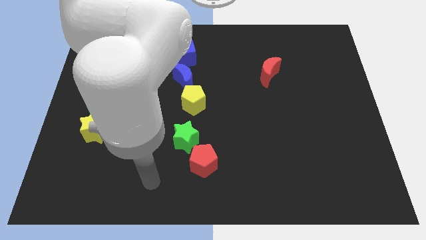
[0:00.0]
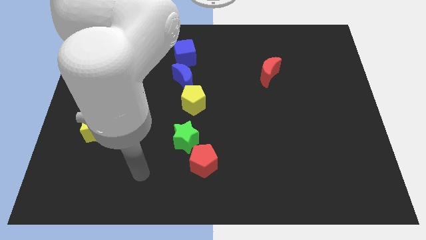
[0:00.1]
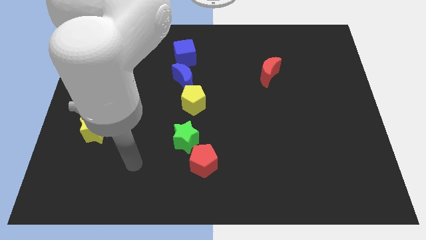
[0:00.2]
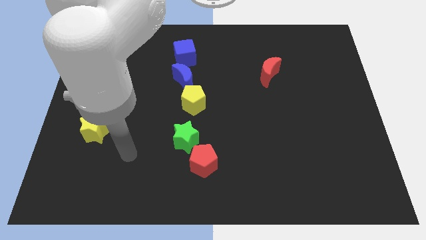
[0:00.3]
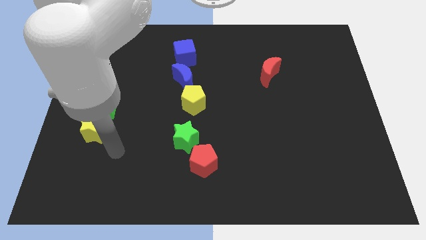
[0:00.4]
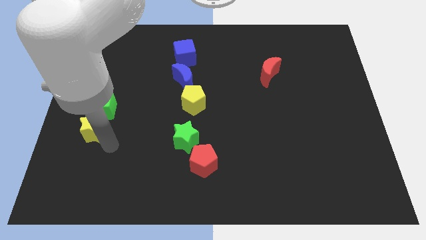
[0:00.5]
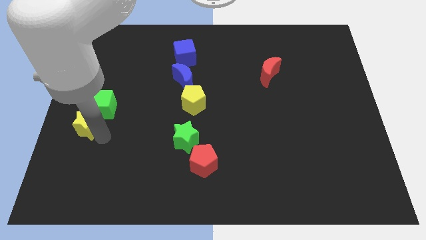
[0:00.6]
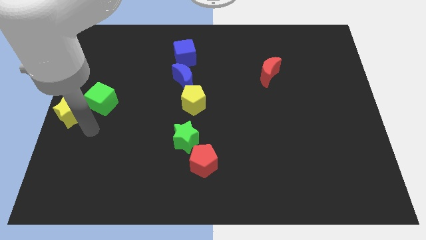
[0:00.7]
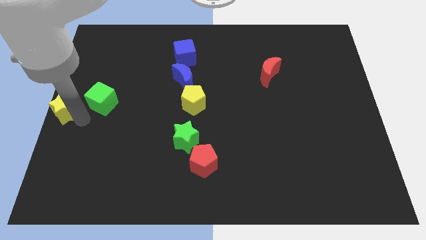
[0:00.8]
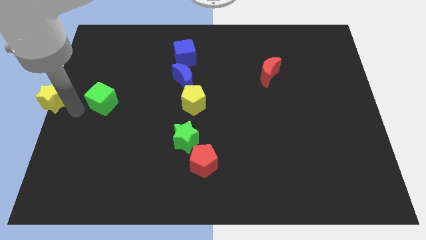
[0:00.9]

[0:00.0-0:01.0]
separate the green cube from the yellow star

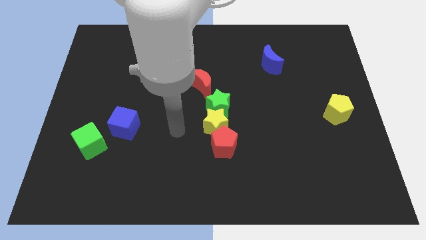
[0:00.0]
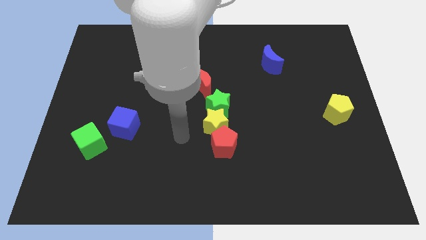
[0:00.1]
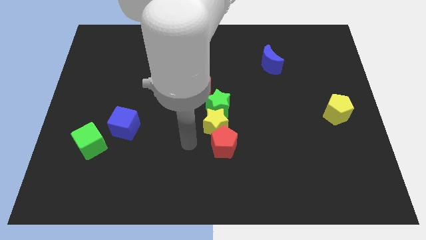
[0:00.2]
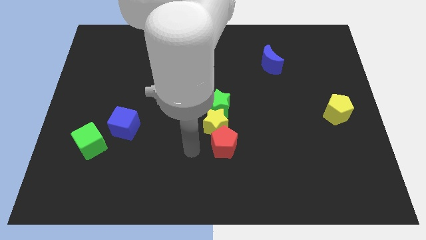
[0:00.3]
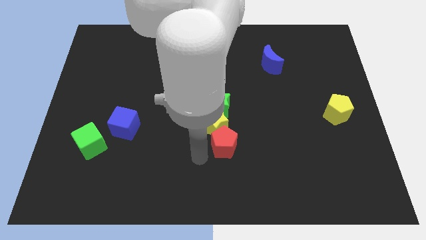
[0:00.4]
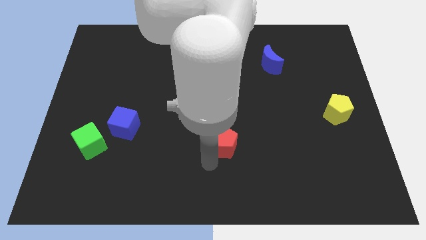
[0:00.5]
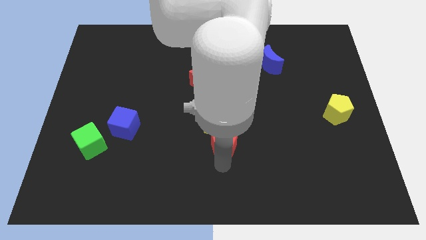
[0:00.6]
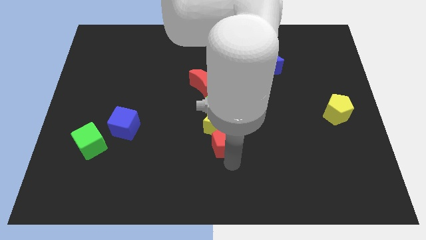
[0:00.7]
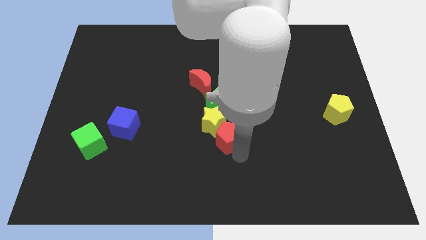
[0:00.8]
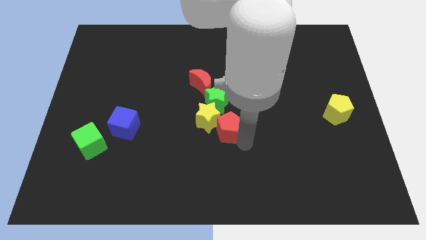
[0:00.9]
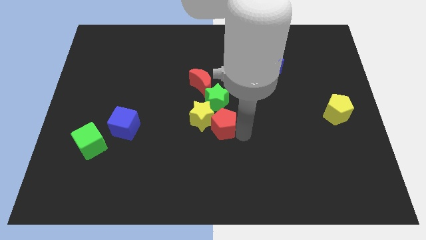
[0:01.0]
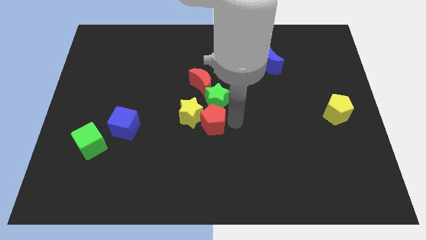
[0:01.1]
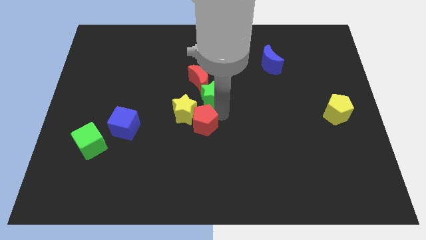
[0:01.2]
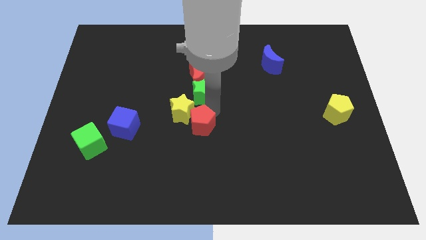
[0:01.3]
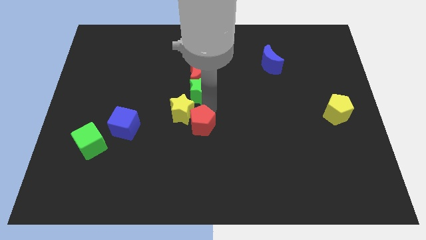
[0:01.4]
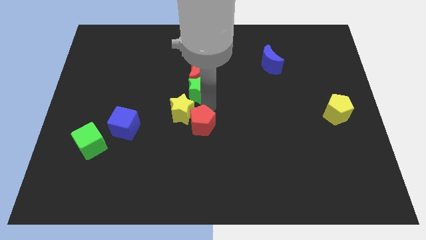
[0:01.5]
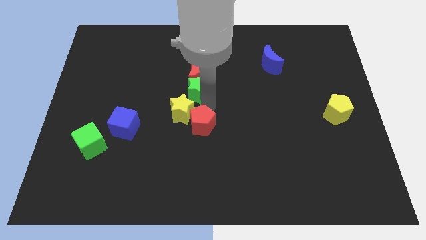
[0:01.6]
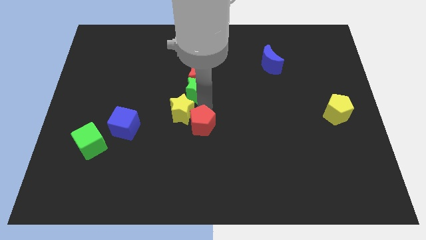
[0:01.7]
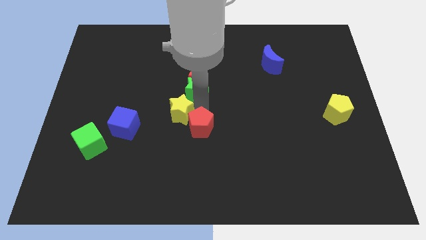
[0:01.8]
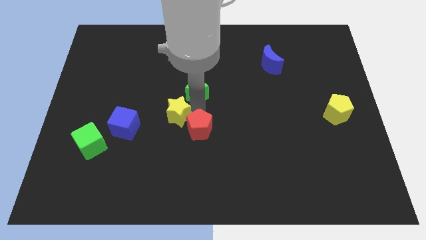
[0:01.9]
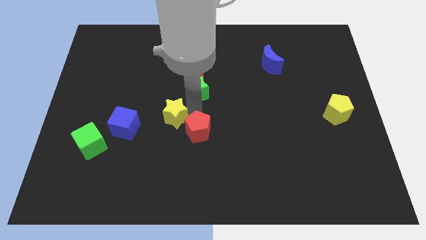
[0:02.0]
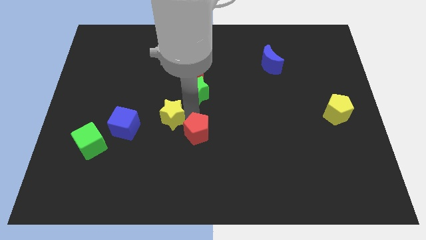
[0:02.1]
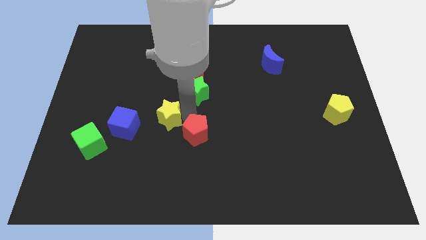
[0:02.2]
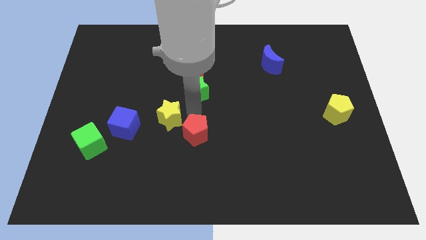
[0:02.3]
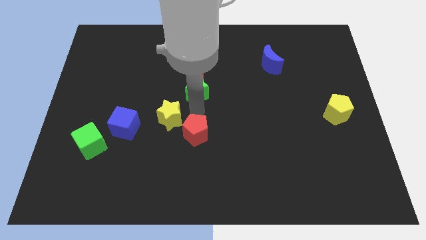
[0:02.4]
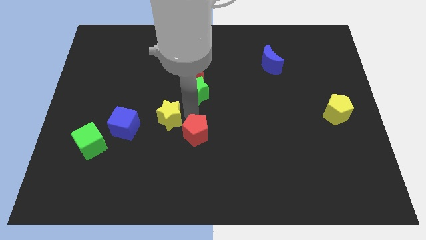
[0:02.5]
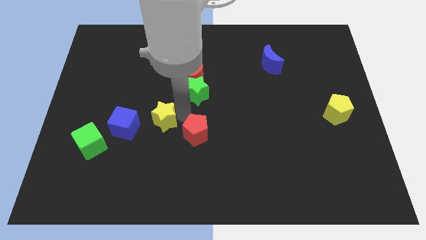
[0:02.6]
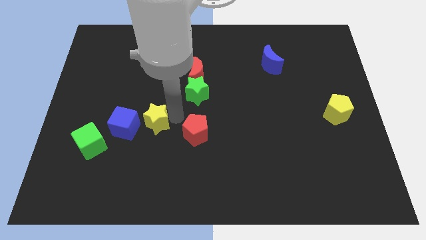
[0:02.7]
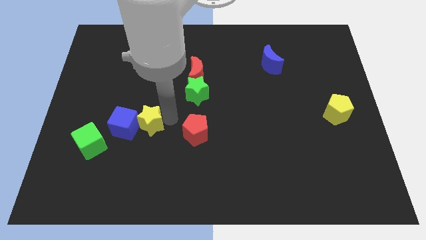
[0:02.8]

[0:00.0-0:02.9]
move the yellow star away from the green star and red pentagon

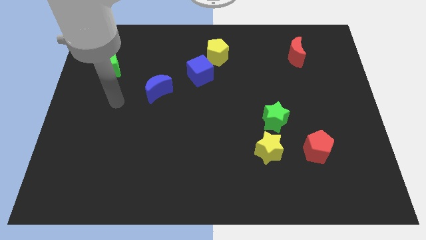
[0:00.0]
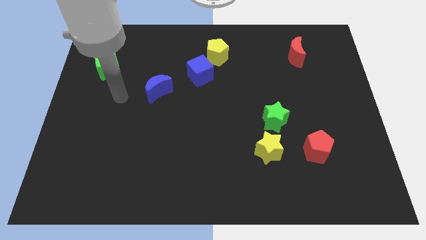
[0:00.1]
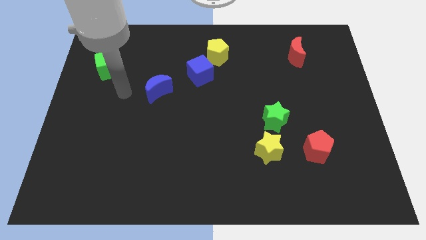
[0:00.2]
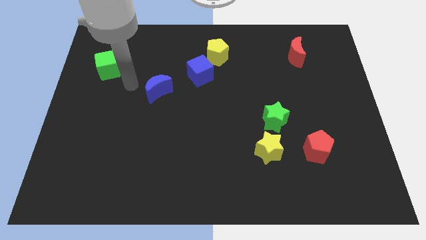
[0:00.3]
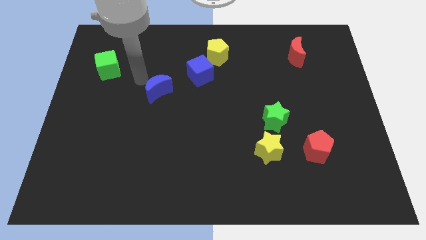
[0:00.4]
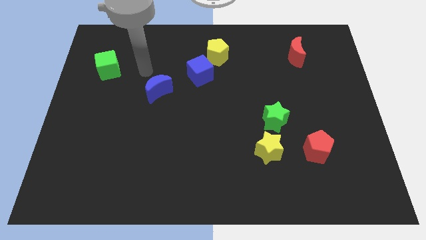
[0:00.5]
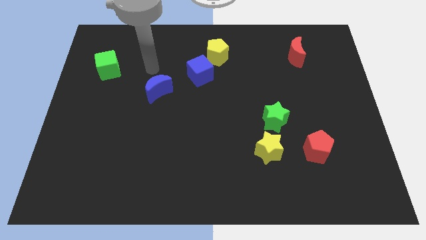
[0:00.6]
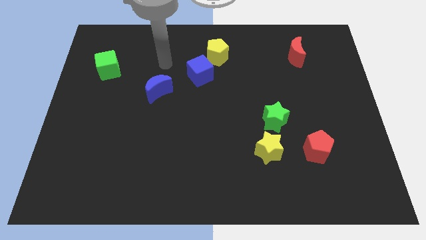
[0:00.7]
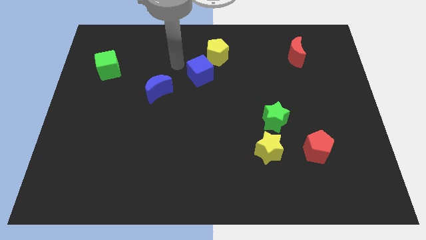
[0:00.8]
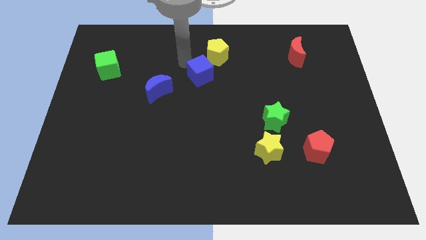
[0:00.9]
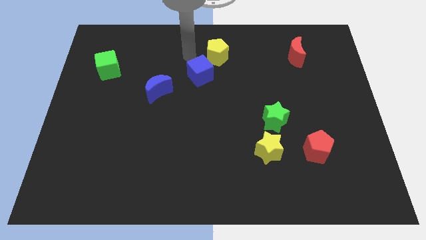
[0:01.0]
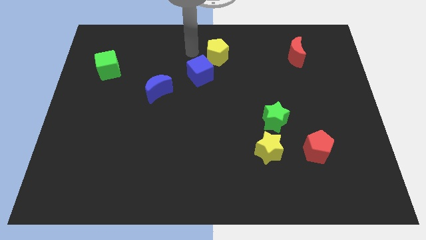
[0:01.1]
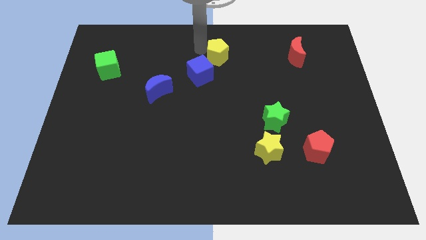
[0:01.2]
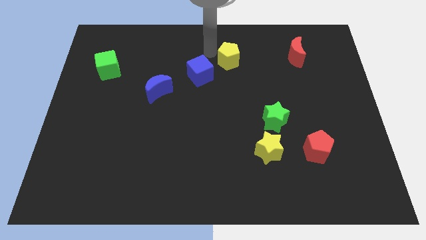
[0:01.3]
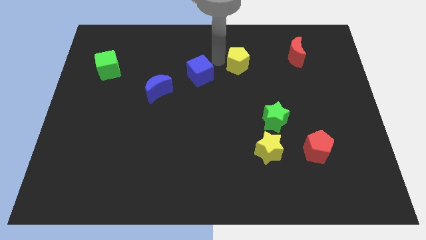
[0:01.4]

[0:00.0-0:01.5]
move the blue cube away from the yellow pentagon

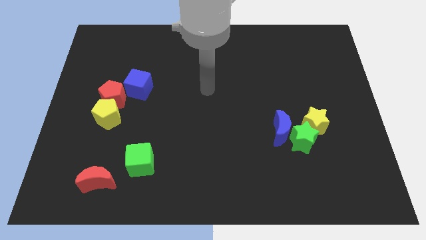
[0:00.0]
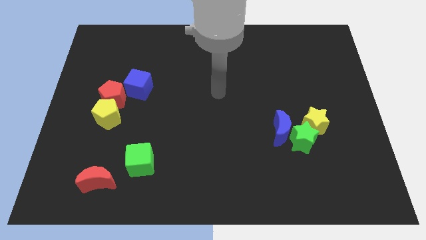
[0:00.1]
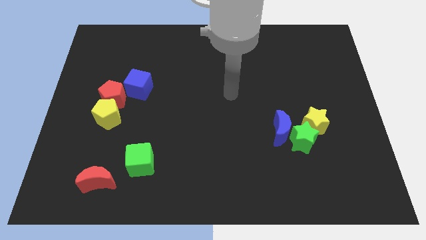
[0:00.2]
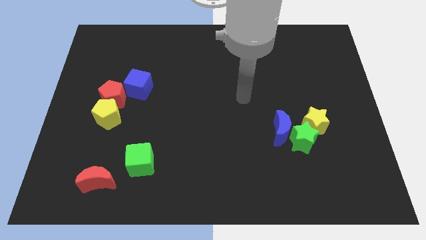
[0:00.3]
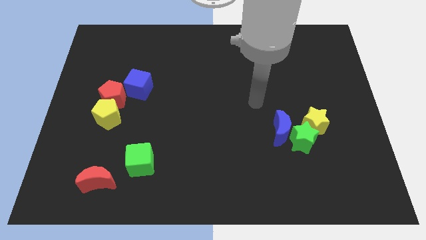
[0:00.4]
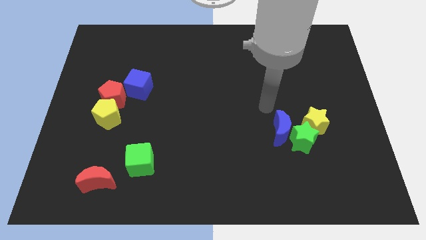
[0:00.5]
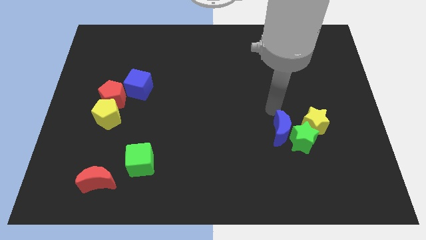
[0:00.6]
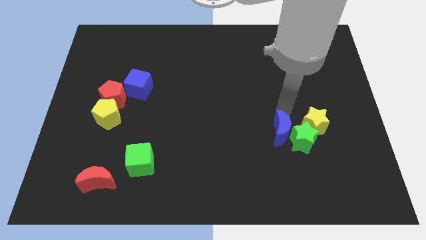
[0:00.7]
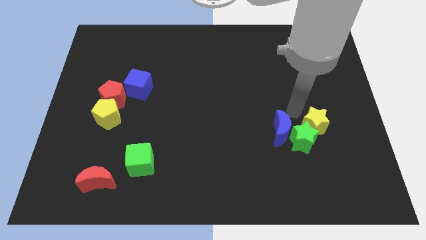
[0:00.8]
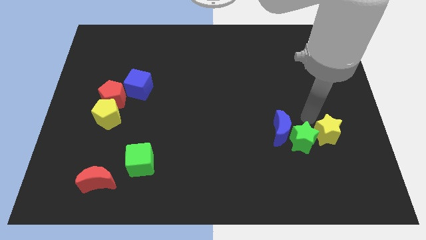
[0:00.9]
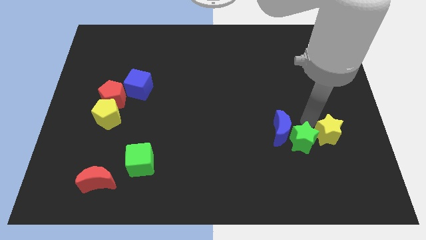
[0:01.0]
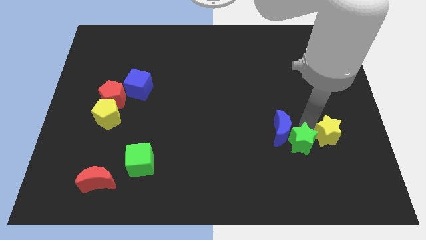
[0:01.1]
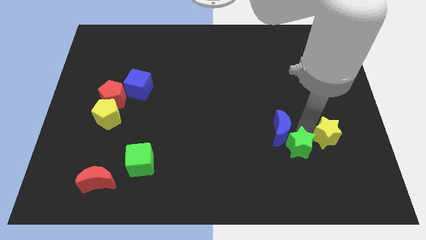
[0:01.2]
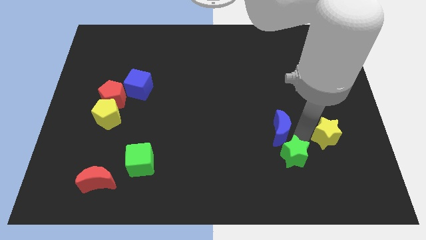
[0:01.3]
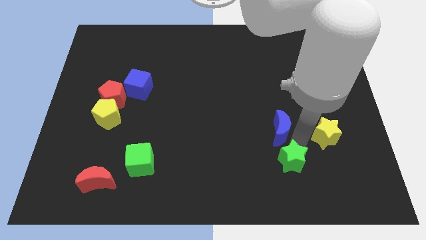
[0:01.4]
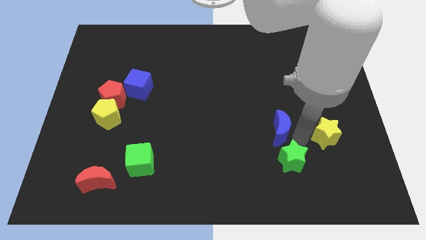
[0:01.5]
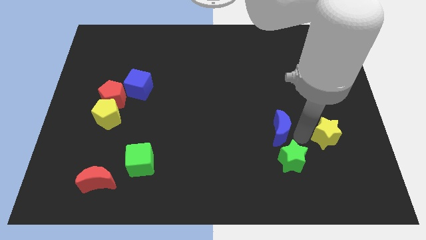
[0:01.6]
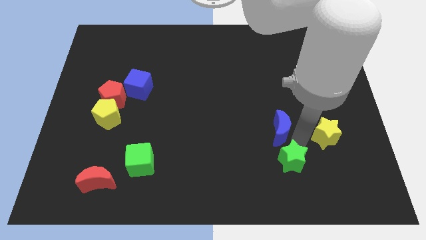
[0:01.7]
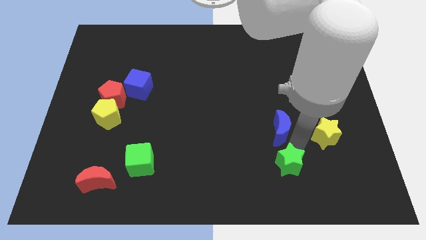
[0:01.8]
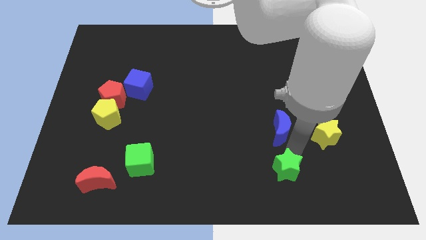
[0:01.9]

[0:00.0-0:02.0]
separate the green star from the blue moon and yellow star

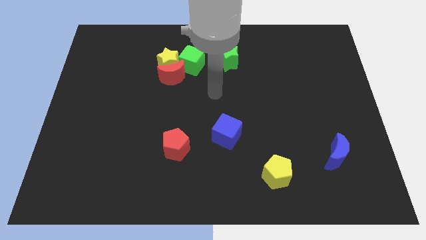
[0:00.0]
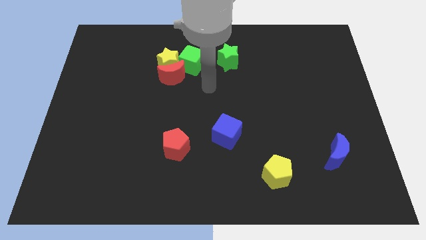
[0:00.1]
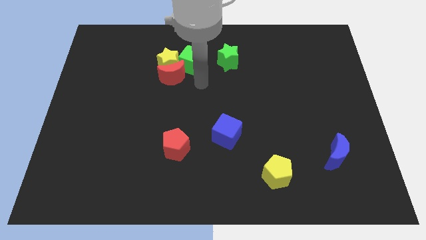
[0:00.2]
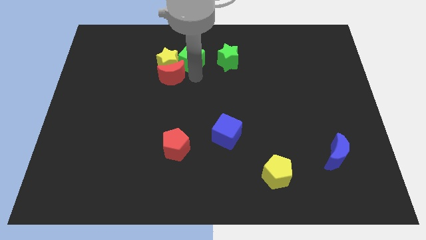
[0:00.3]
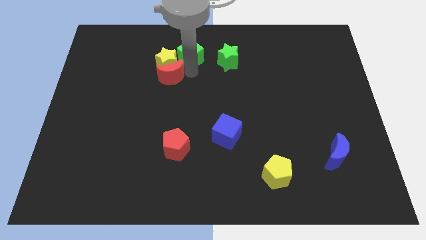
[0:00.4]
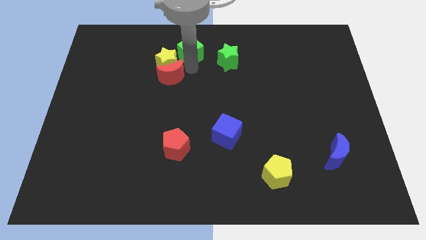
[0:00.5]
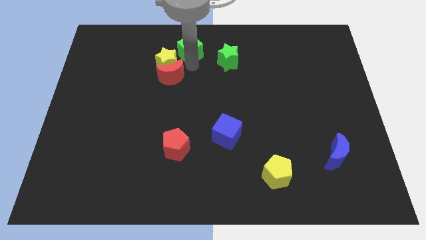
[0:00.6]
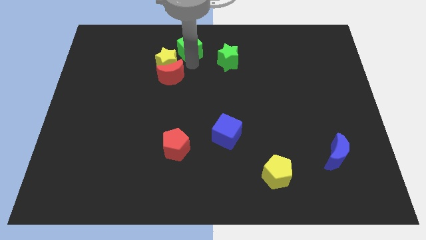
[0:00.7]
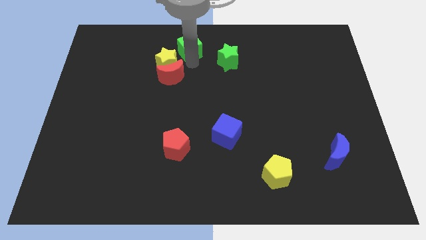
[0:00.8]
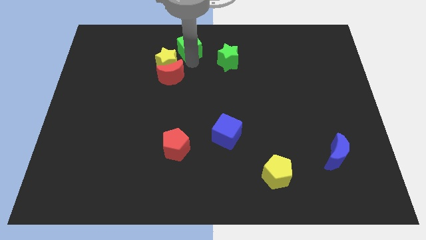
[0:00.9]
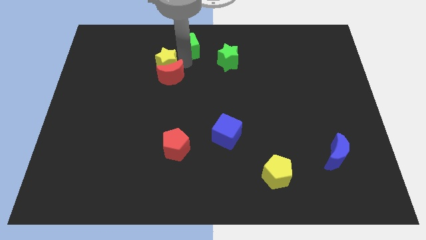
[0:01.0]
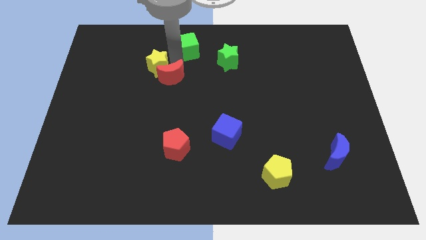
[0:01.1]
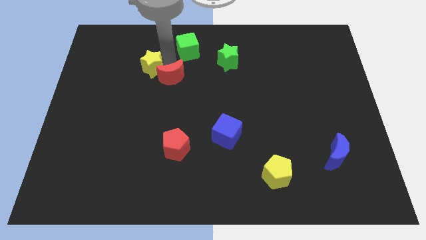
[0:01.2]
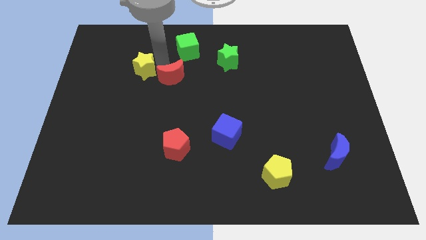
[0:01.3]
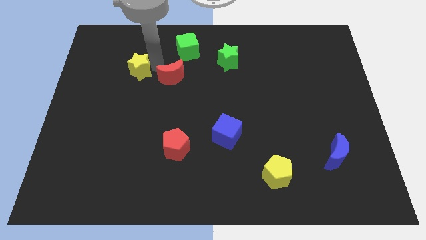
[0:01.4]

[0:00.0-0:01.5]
separate the yellow star from the red moon and green cube

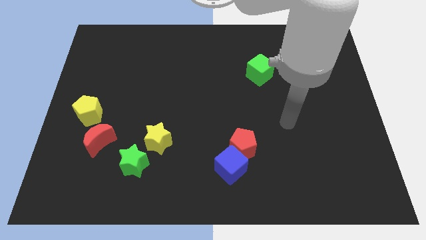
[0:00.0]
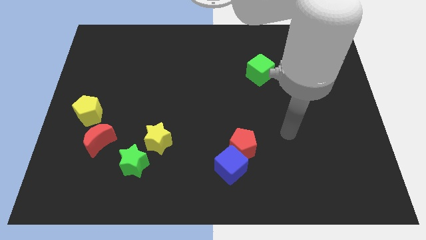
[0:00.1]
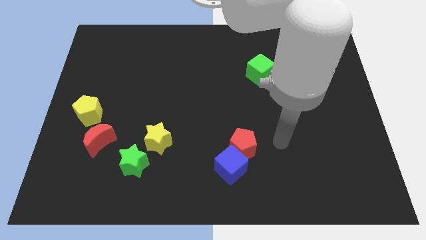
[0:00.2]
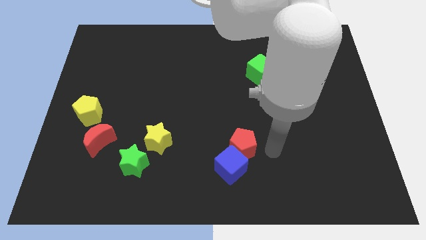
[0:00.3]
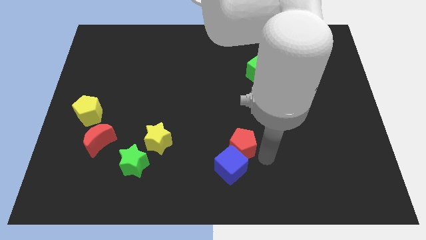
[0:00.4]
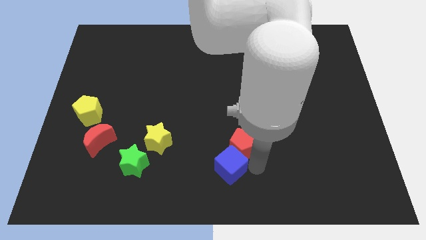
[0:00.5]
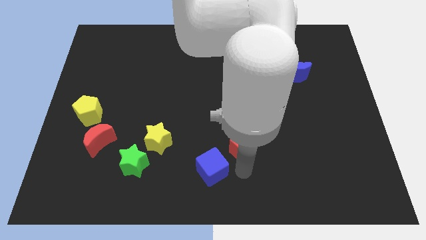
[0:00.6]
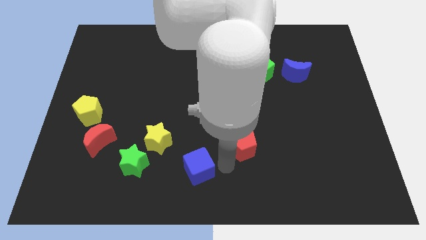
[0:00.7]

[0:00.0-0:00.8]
pull the red pentagon apart from the blue cube
